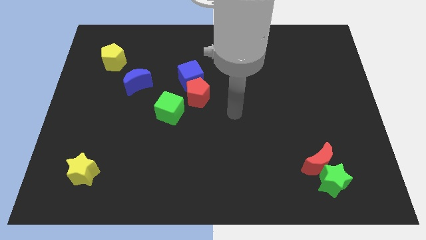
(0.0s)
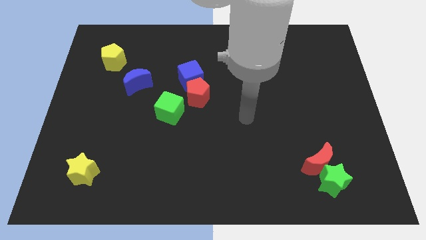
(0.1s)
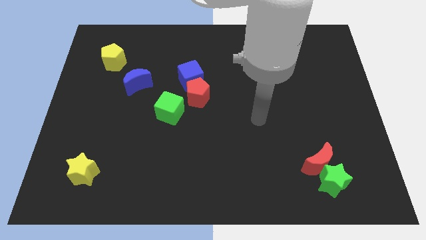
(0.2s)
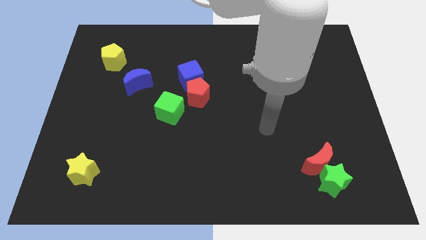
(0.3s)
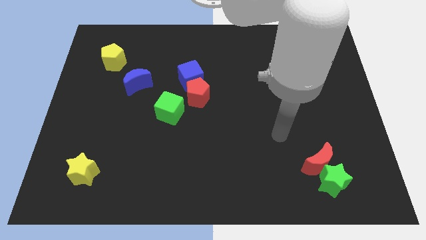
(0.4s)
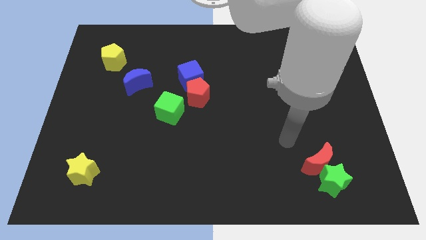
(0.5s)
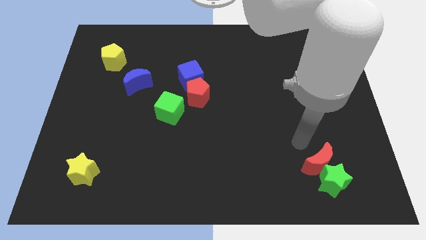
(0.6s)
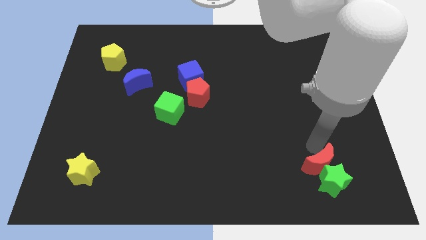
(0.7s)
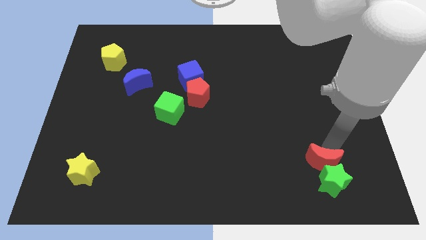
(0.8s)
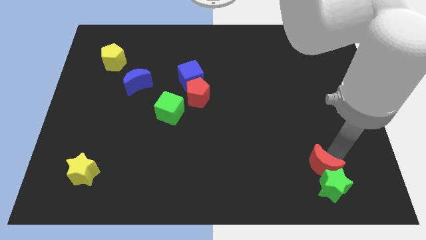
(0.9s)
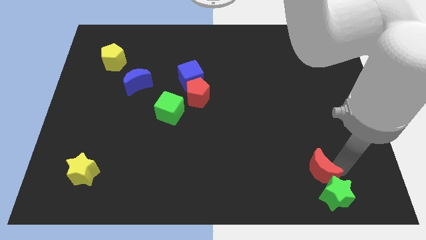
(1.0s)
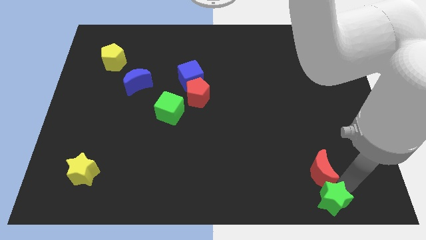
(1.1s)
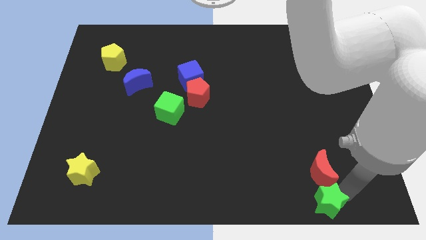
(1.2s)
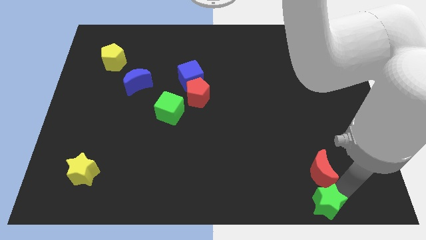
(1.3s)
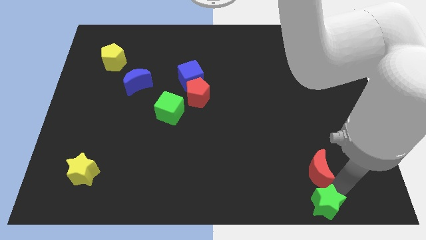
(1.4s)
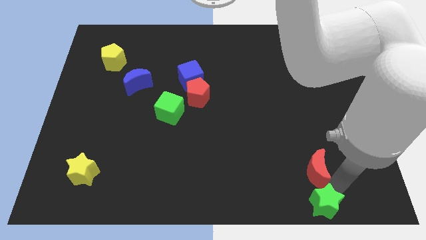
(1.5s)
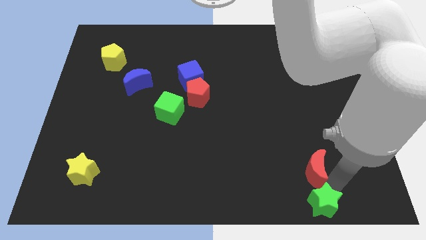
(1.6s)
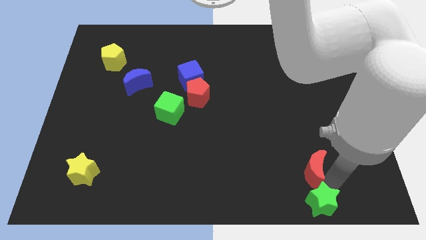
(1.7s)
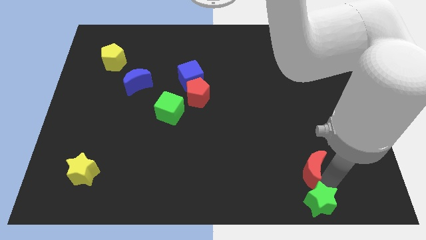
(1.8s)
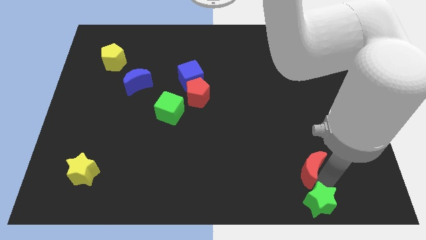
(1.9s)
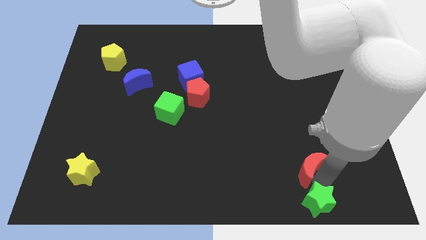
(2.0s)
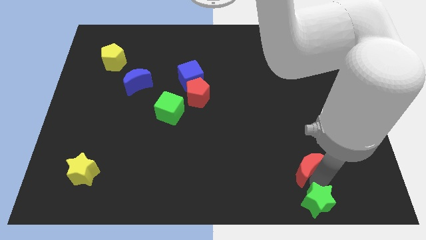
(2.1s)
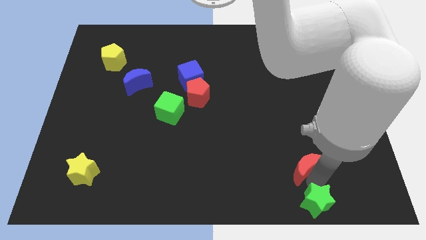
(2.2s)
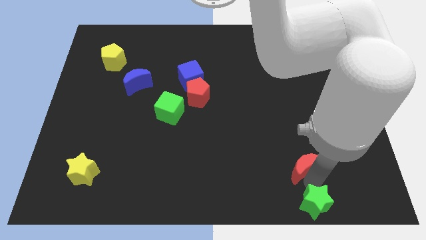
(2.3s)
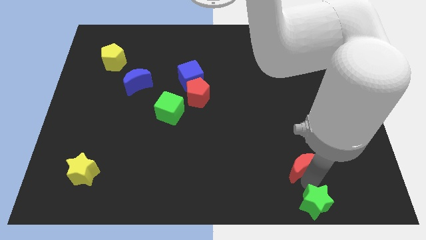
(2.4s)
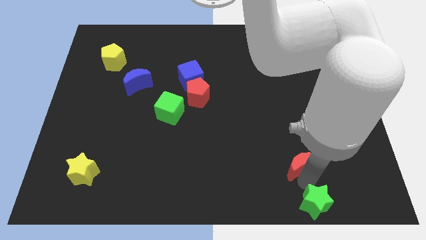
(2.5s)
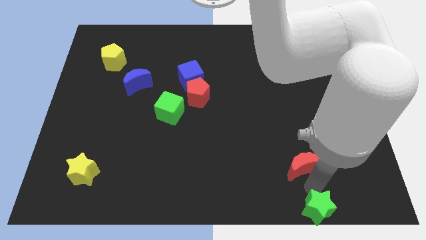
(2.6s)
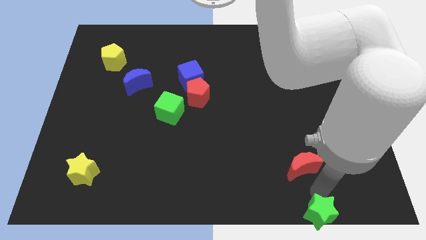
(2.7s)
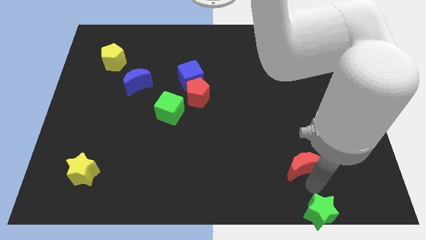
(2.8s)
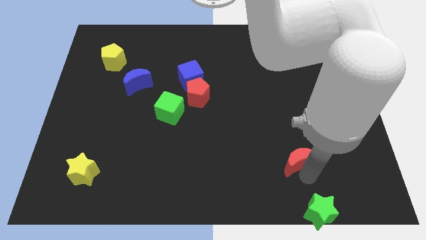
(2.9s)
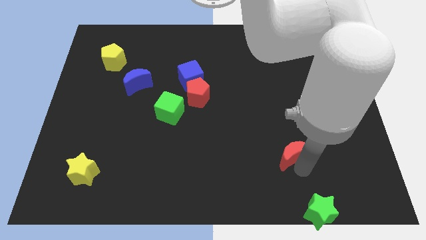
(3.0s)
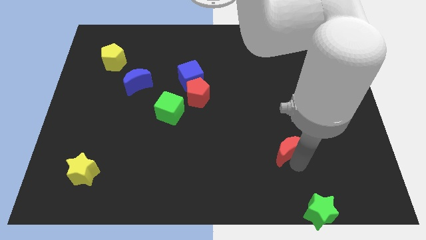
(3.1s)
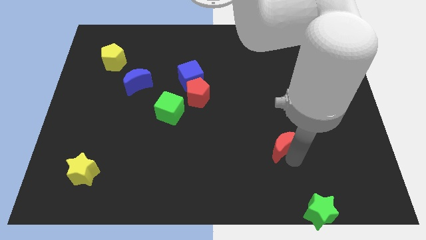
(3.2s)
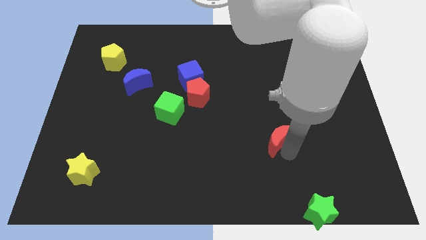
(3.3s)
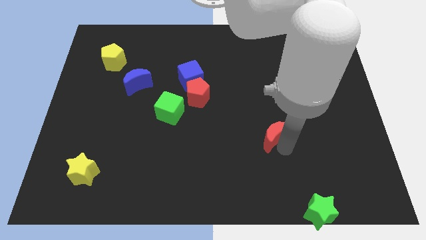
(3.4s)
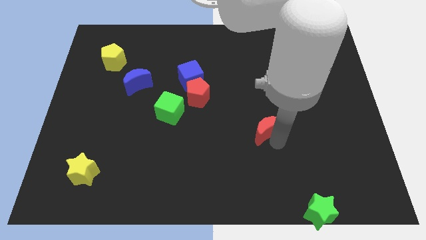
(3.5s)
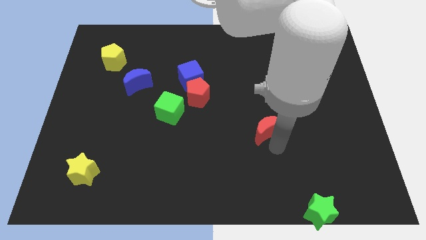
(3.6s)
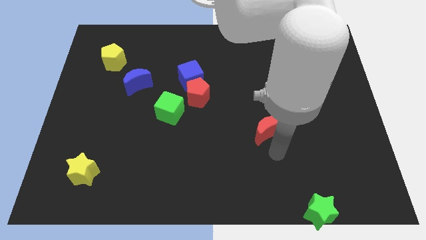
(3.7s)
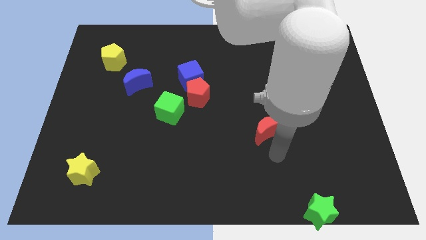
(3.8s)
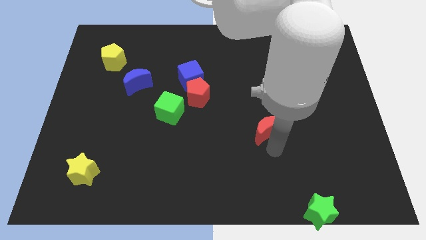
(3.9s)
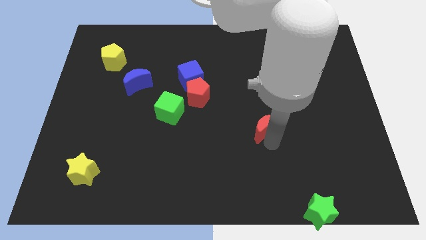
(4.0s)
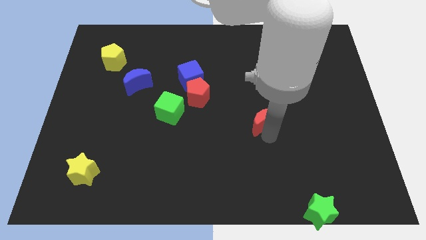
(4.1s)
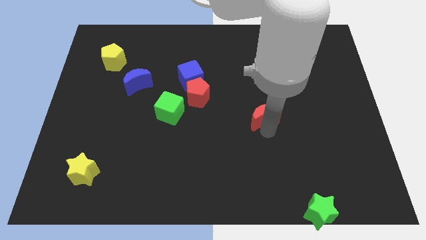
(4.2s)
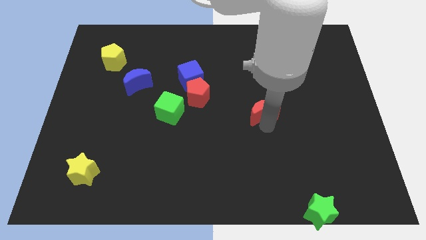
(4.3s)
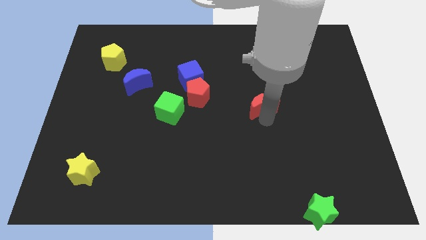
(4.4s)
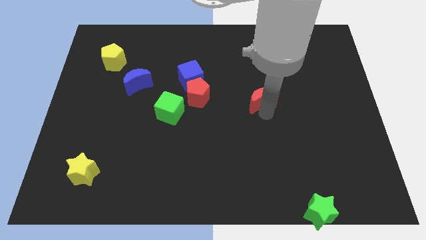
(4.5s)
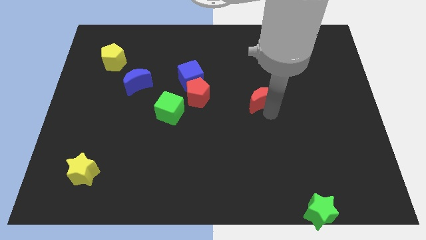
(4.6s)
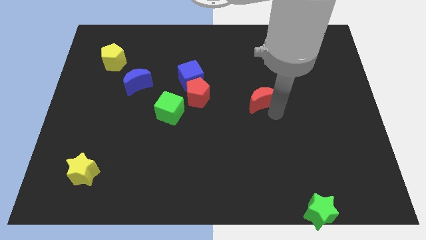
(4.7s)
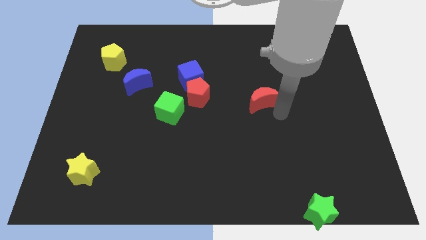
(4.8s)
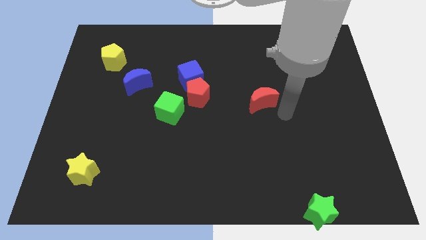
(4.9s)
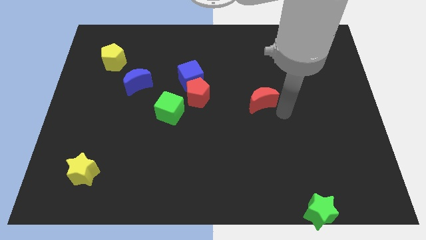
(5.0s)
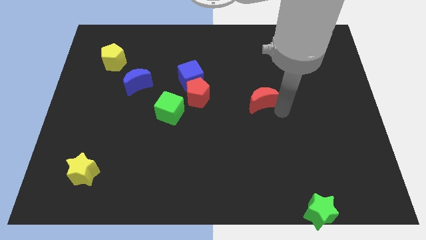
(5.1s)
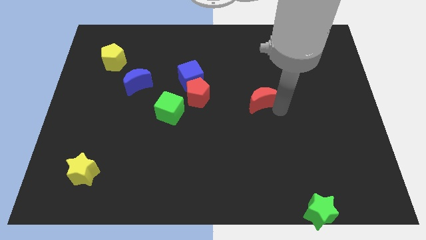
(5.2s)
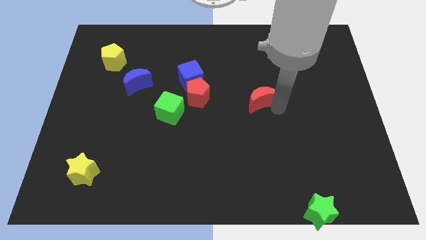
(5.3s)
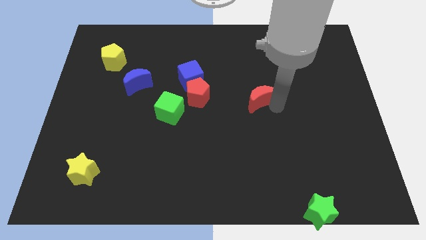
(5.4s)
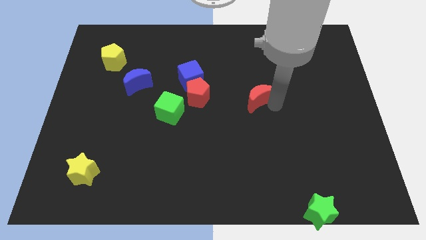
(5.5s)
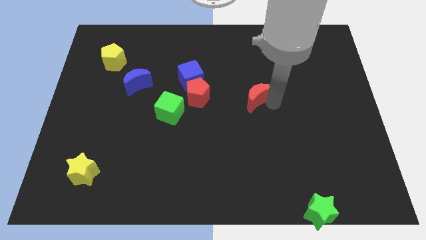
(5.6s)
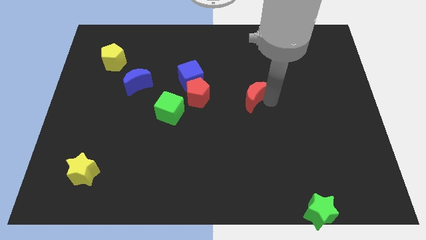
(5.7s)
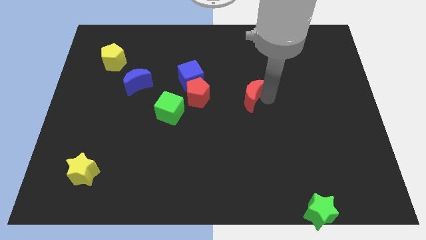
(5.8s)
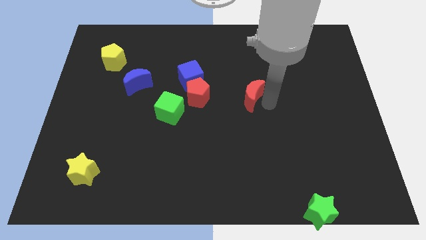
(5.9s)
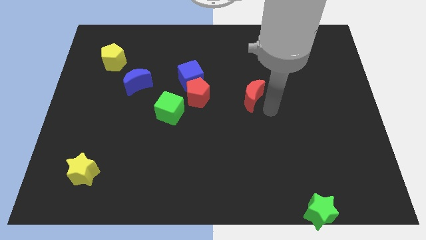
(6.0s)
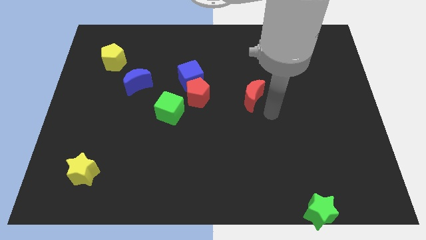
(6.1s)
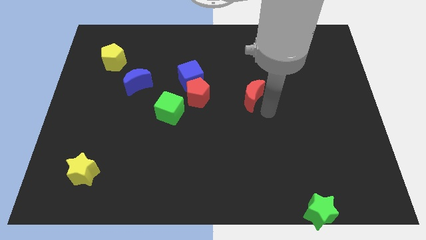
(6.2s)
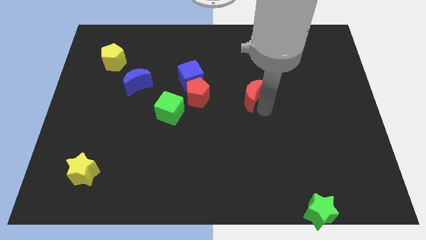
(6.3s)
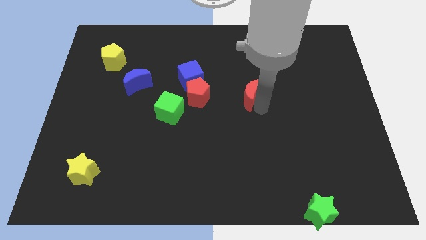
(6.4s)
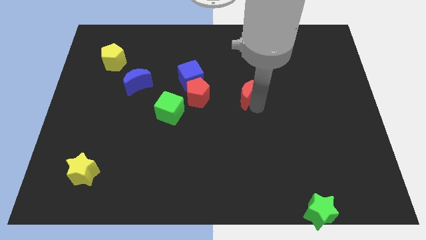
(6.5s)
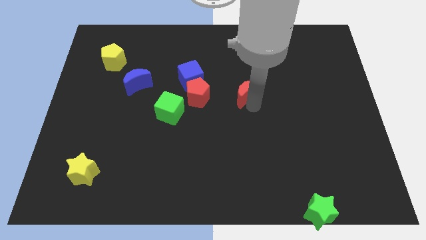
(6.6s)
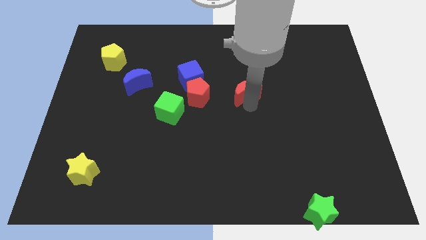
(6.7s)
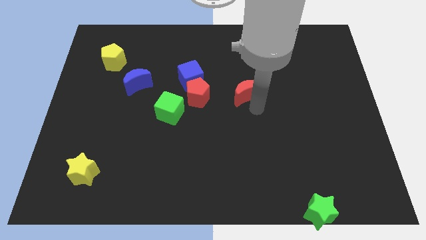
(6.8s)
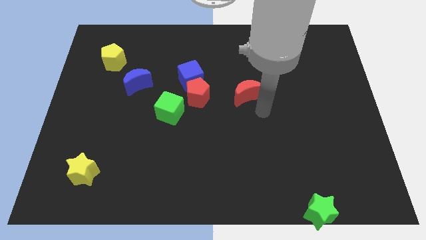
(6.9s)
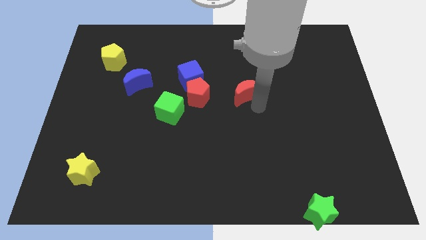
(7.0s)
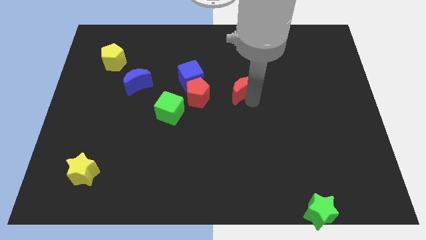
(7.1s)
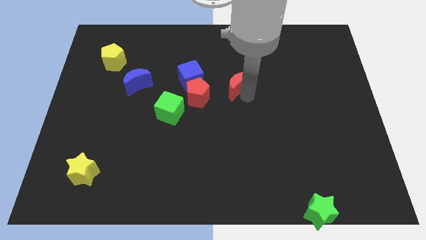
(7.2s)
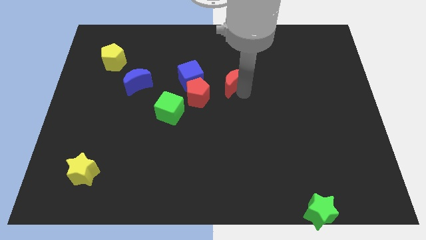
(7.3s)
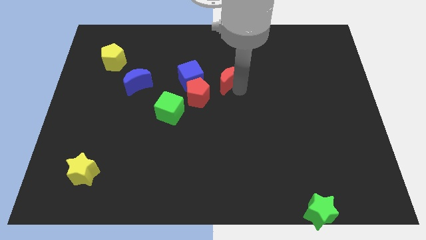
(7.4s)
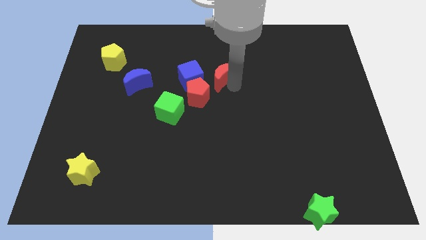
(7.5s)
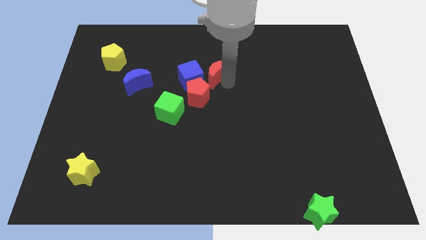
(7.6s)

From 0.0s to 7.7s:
move the red moon to the top right of the blue cube
